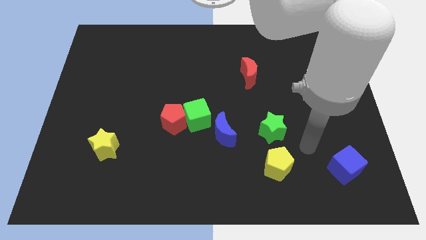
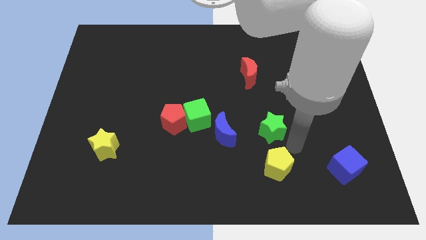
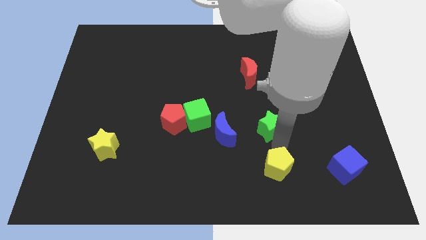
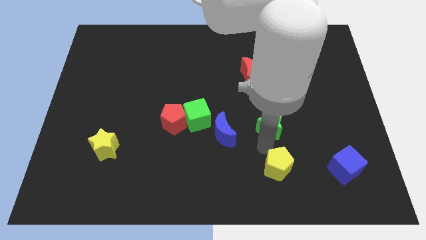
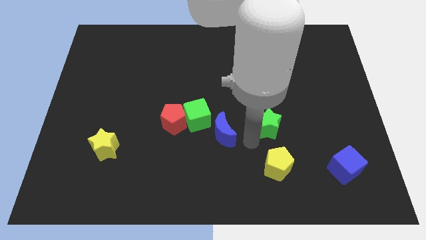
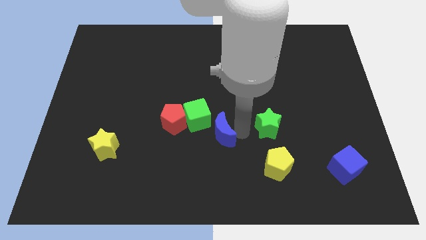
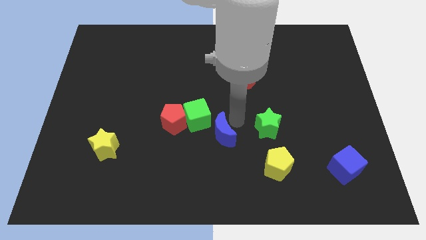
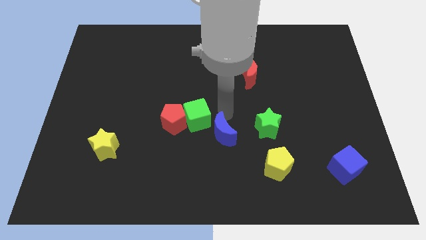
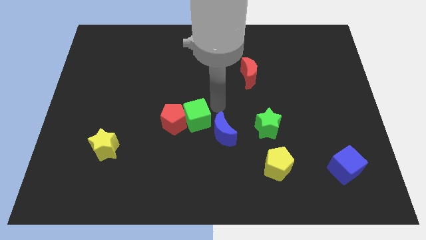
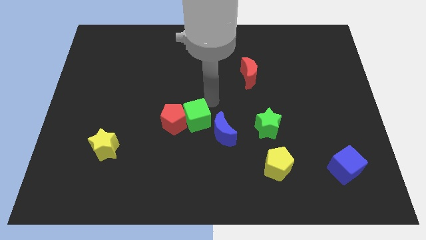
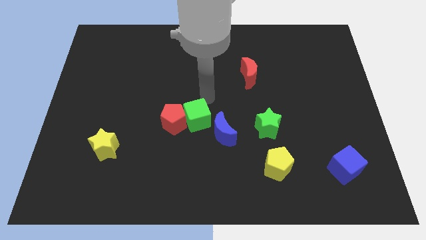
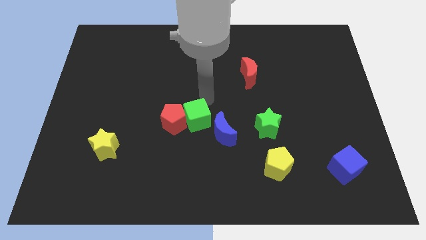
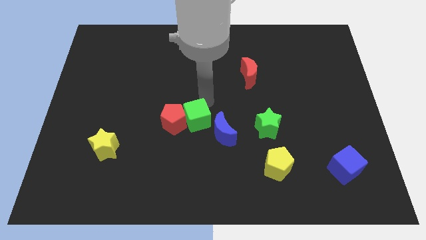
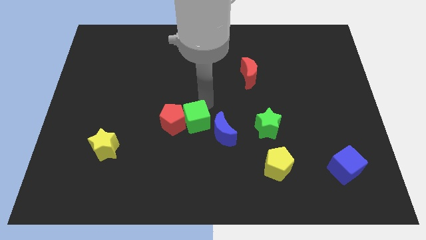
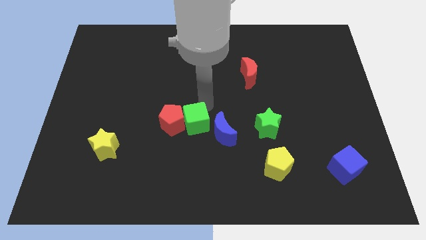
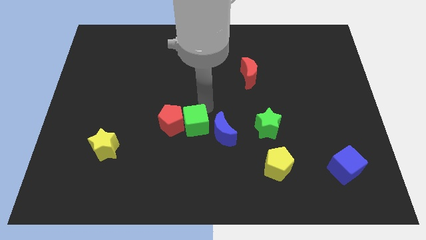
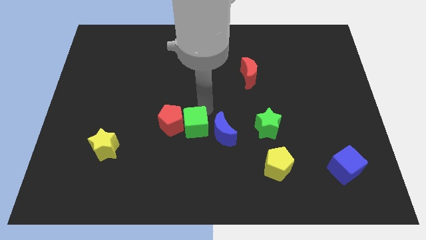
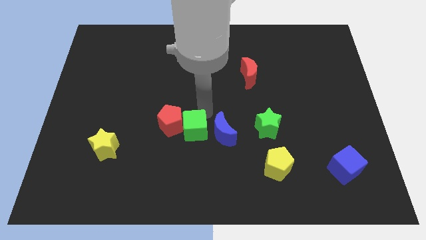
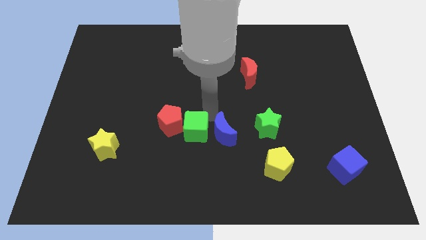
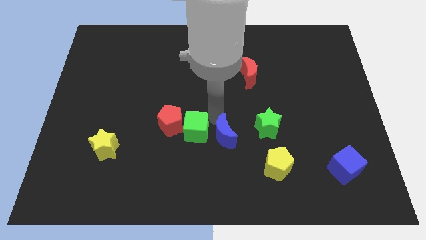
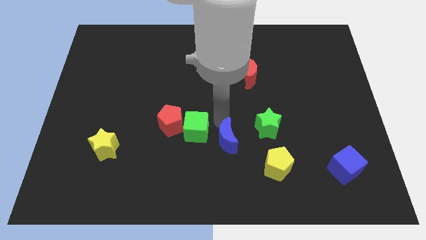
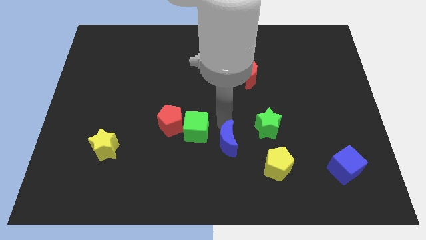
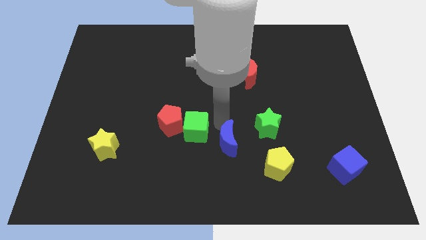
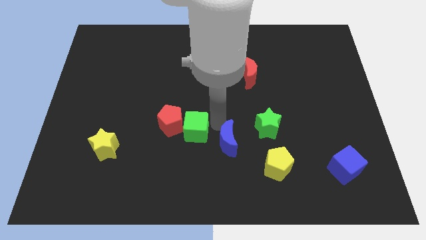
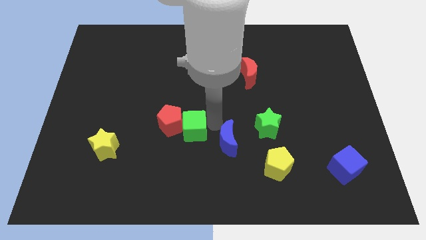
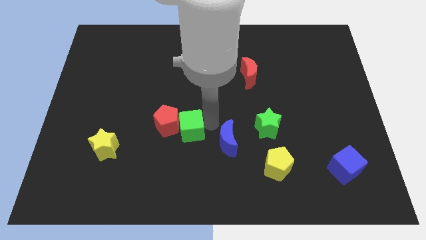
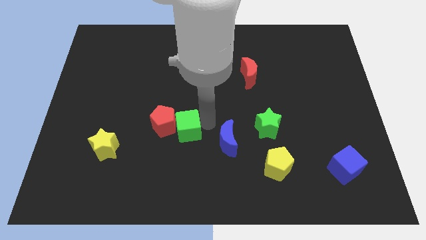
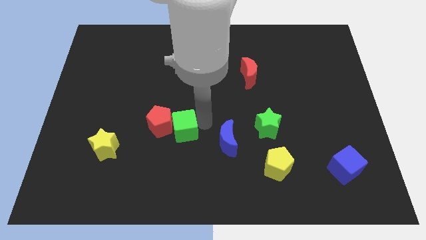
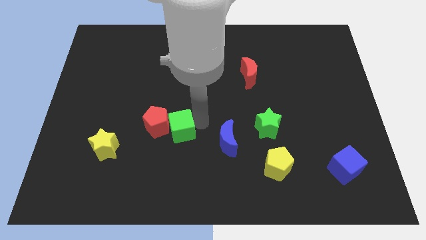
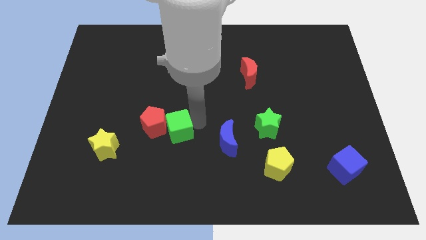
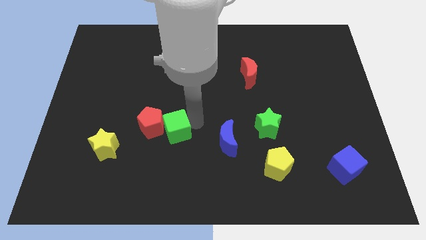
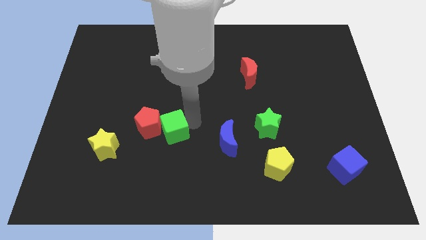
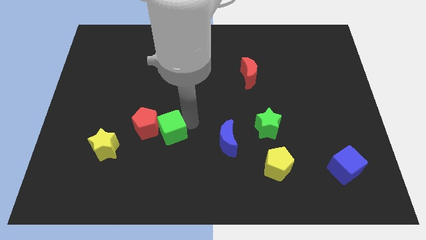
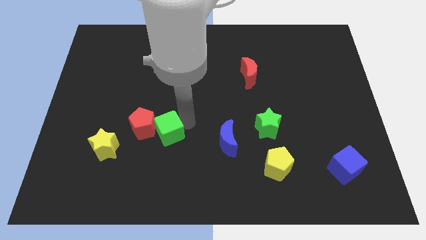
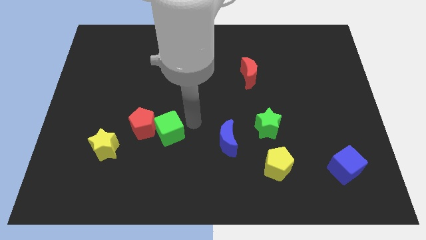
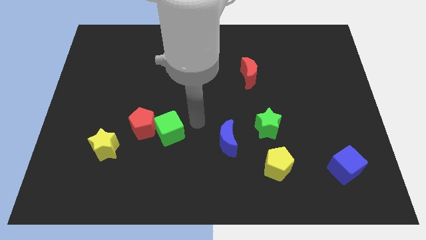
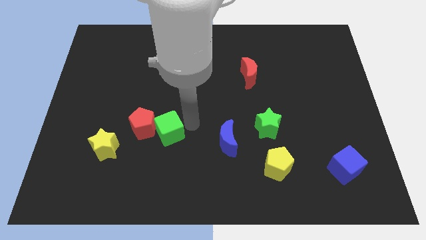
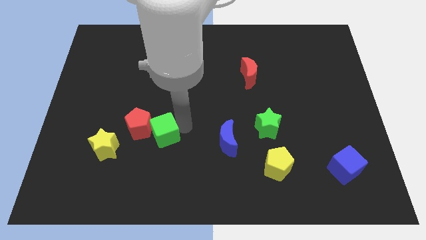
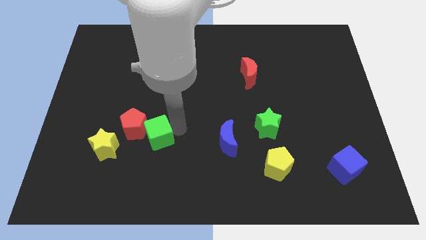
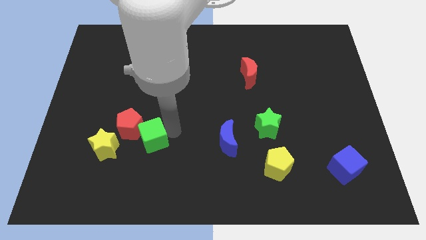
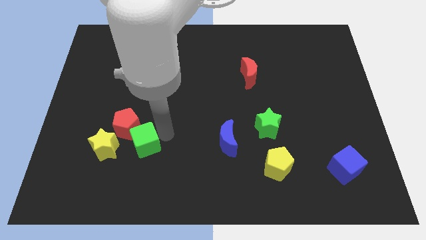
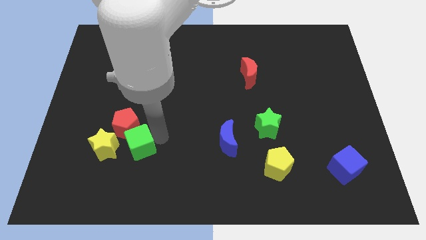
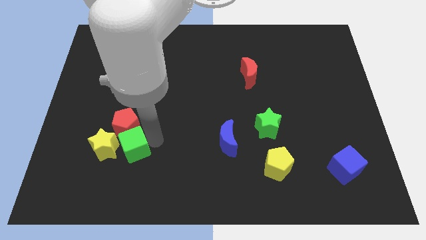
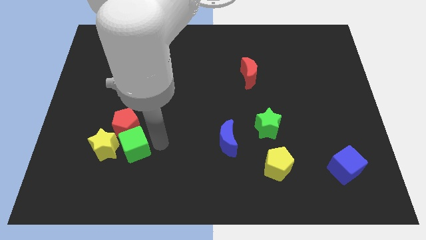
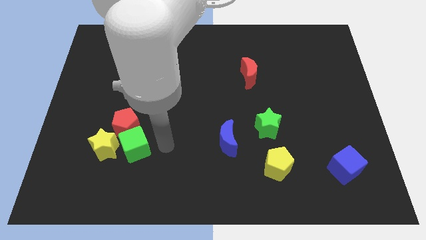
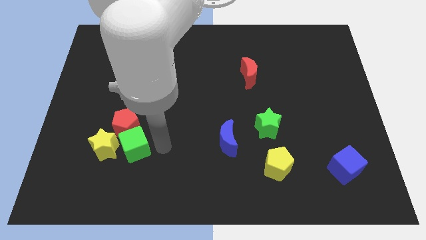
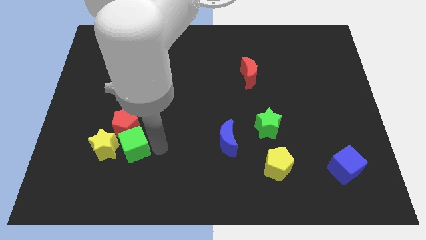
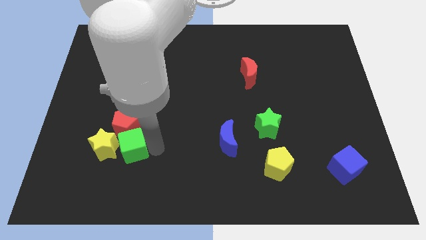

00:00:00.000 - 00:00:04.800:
put the green cube close to the yellow star

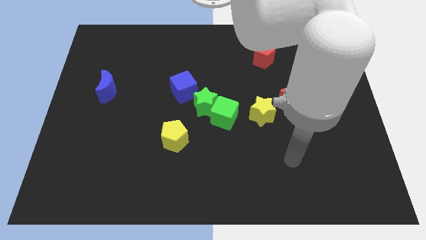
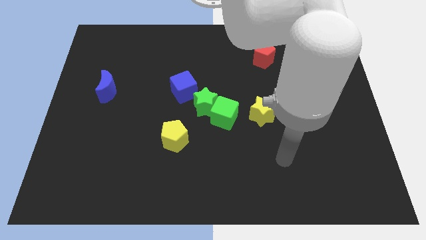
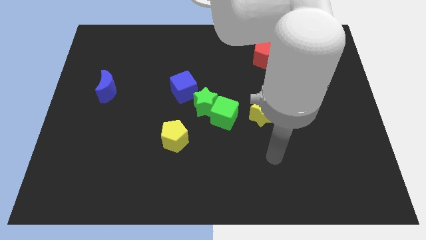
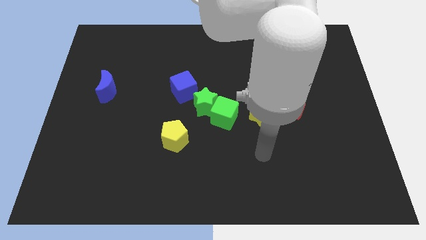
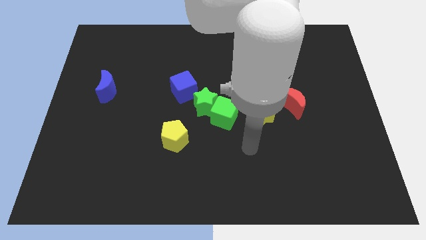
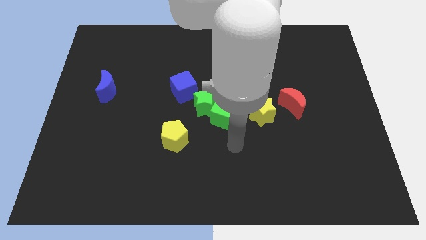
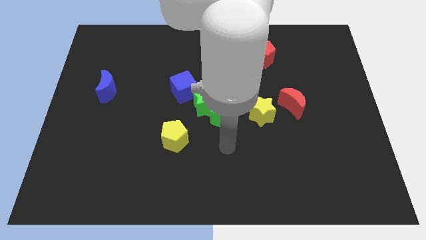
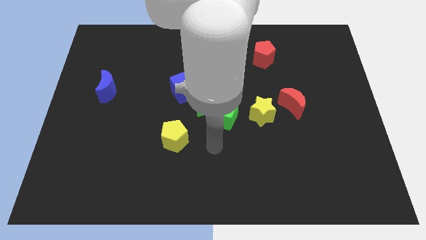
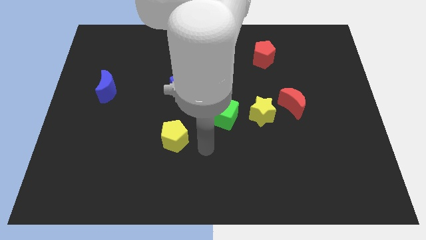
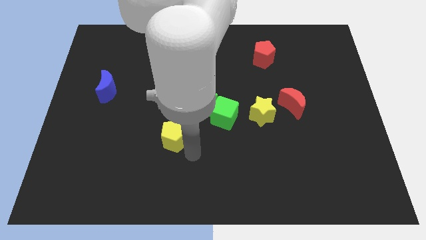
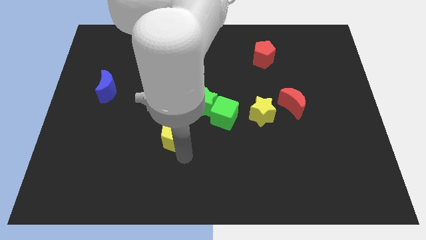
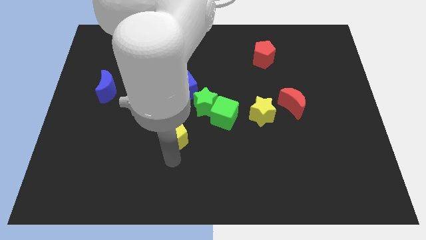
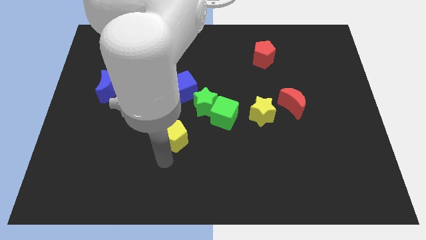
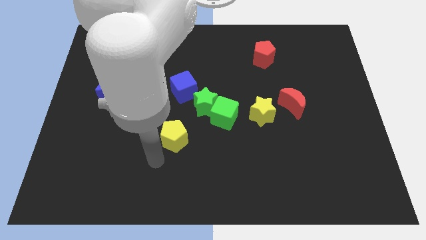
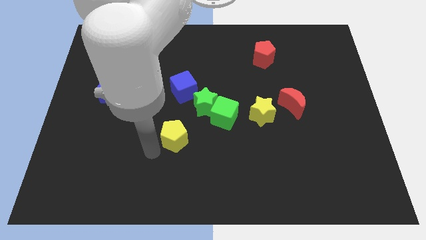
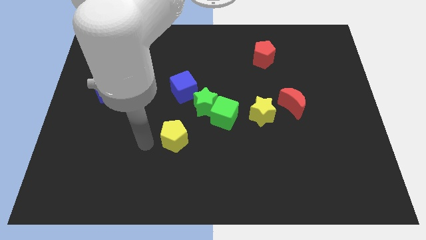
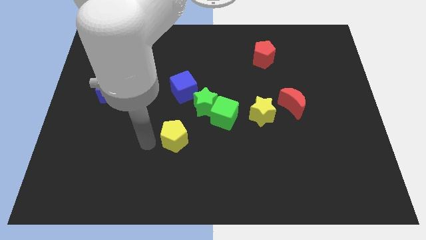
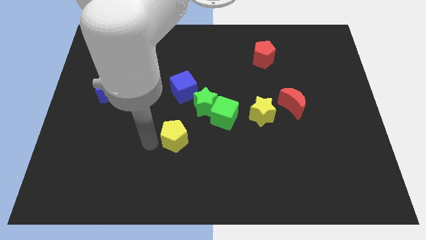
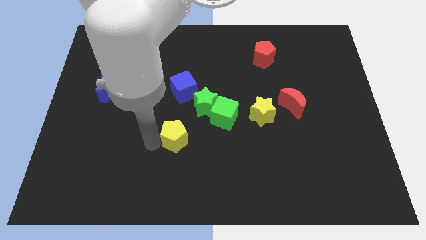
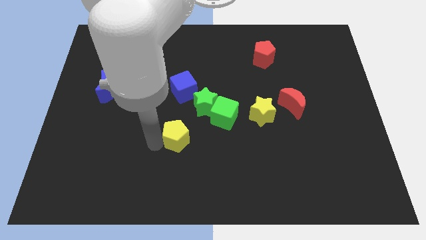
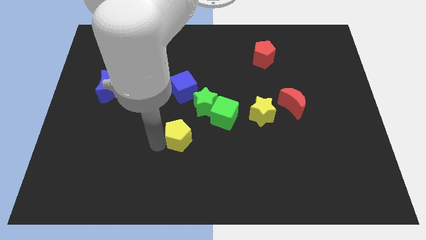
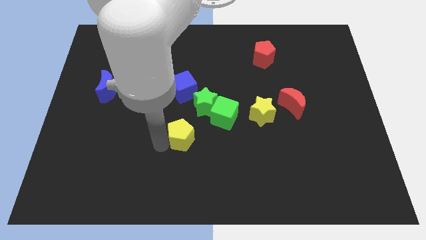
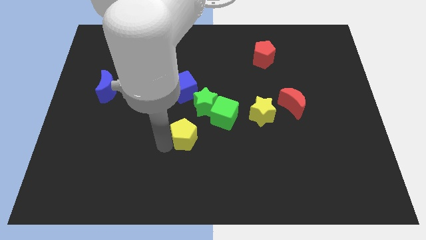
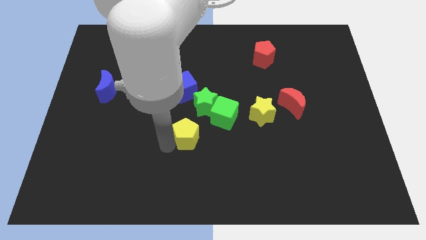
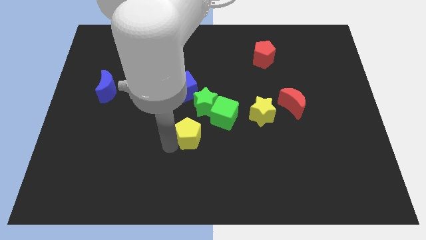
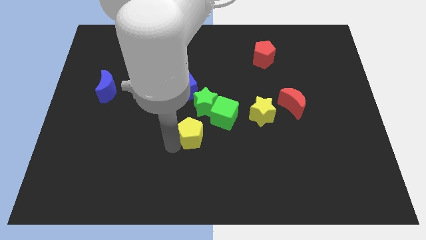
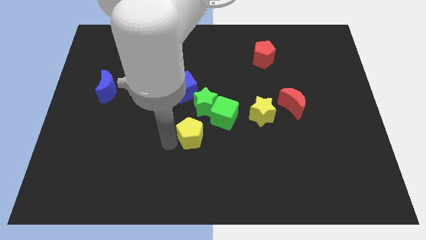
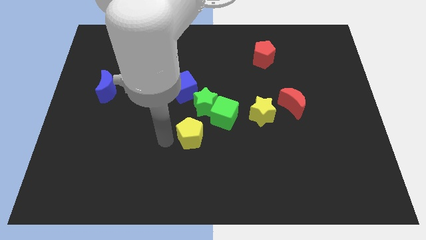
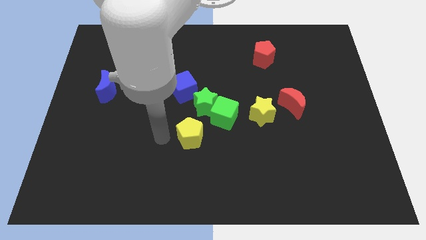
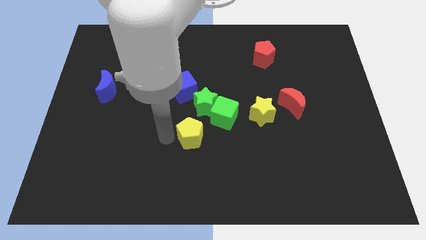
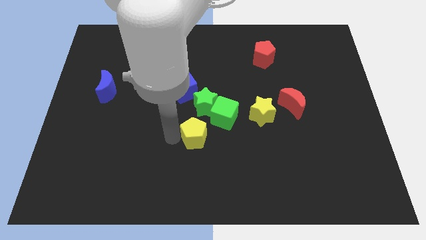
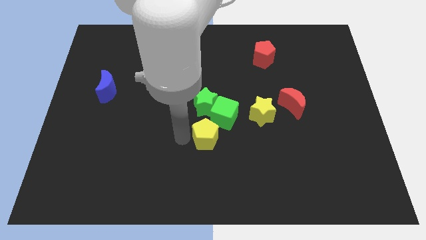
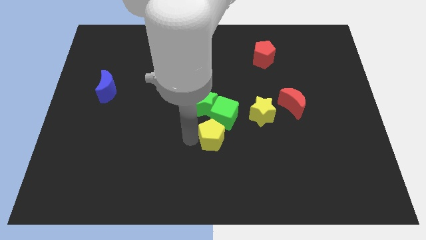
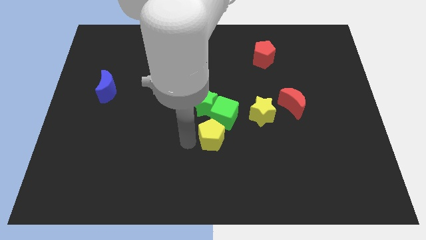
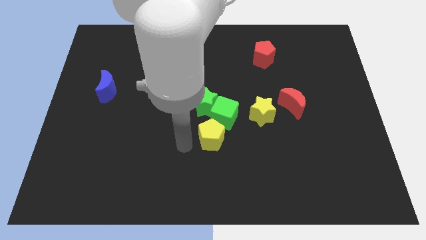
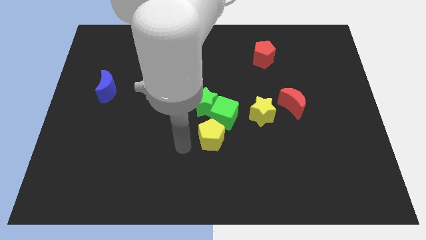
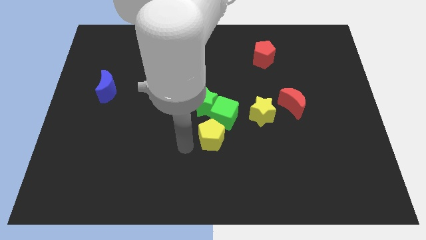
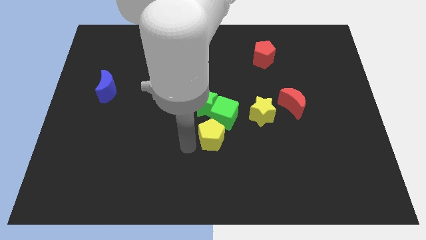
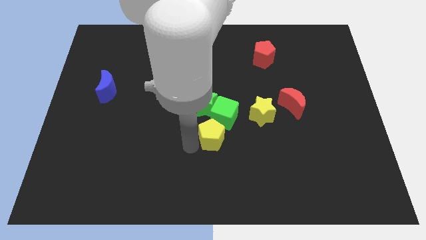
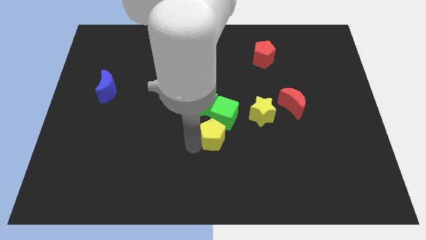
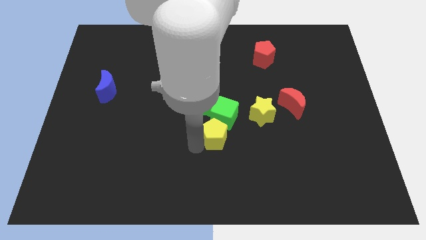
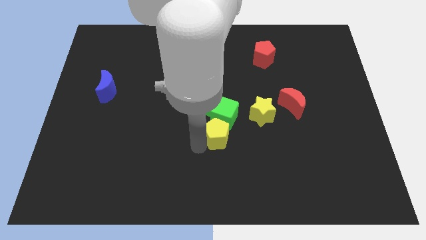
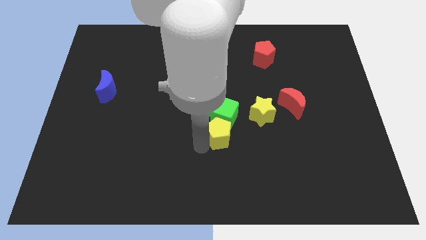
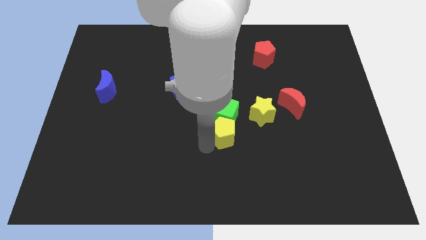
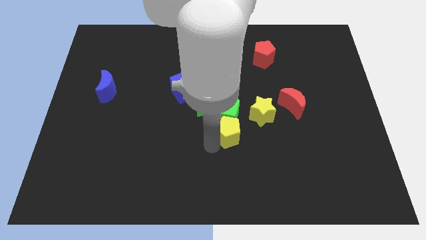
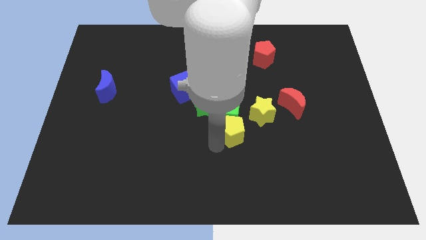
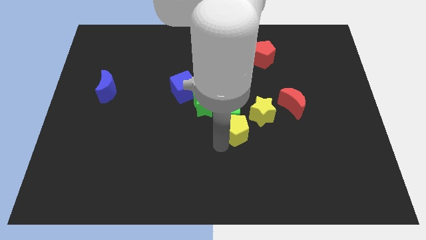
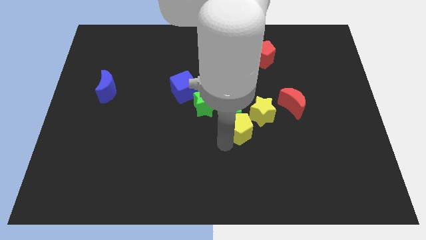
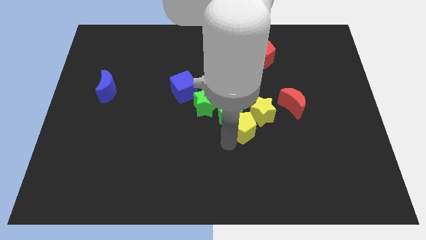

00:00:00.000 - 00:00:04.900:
slide the yellow pentagon next to the yellow star
